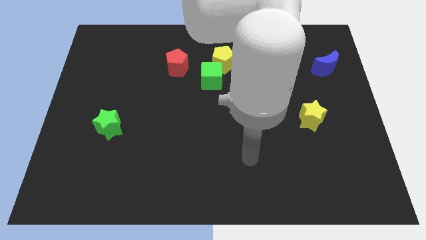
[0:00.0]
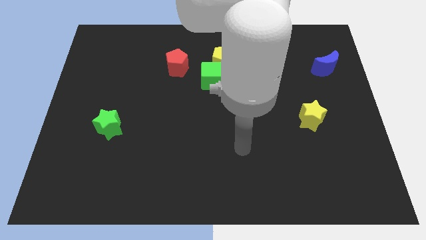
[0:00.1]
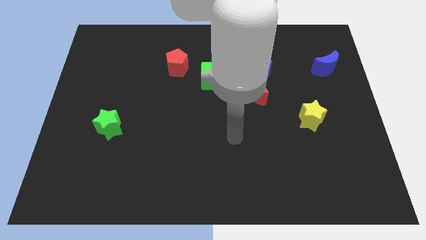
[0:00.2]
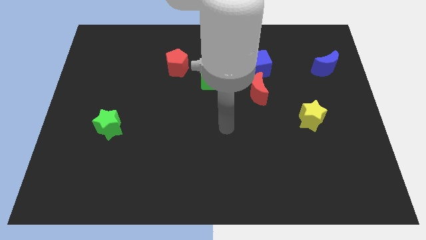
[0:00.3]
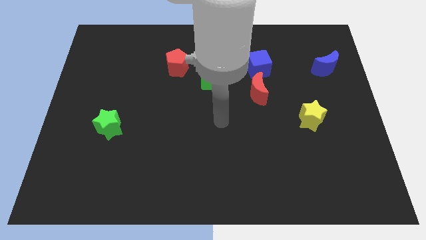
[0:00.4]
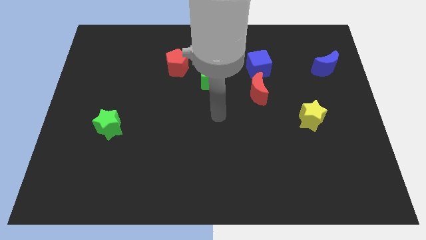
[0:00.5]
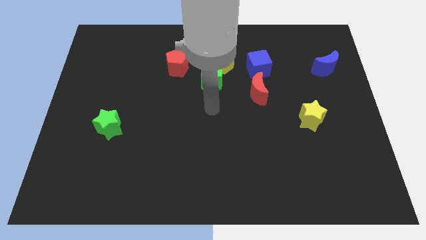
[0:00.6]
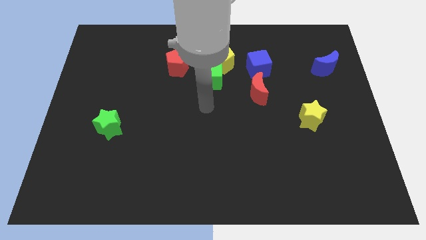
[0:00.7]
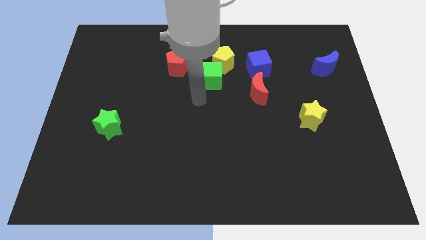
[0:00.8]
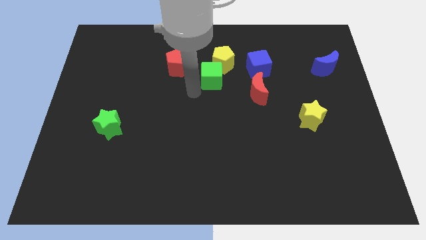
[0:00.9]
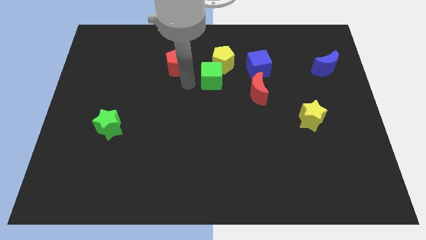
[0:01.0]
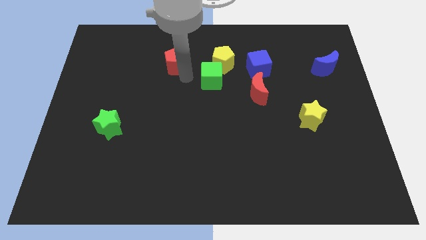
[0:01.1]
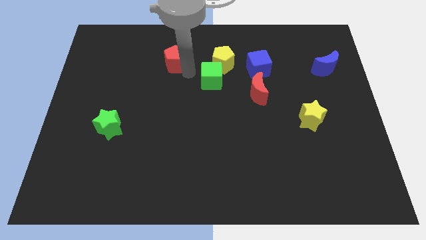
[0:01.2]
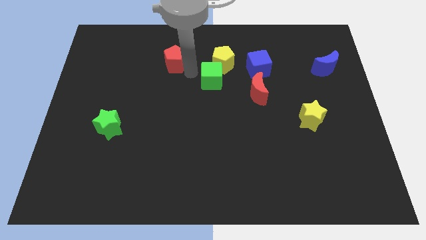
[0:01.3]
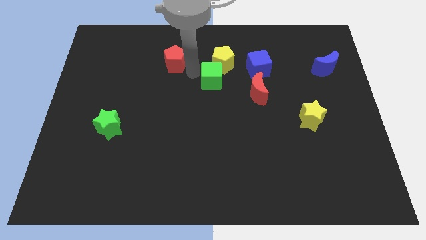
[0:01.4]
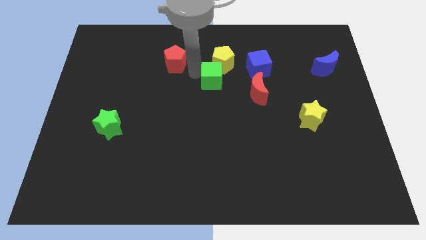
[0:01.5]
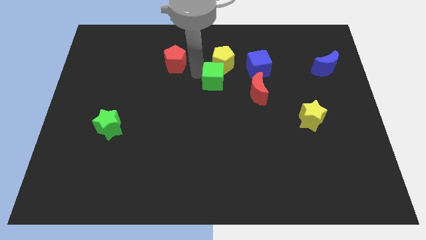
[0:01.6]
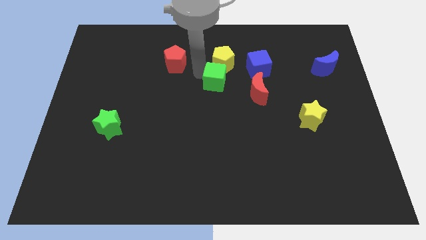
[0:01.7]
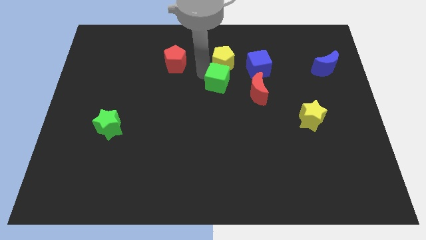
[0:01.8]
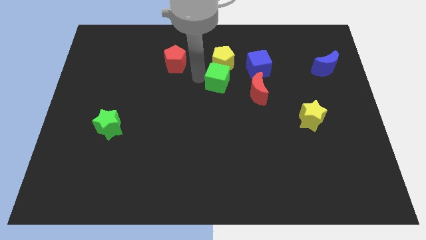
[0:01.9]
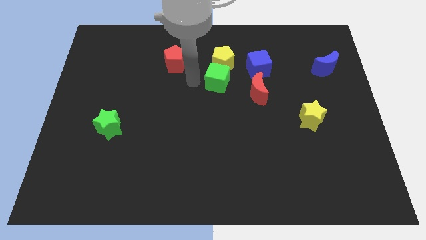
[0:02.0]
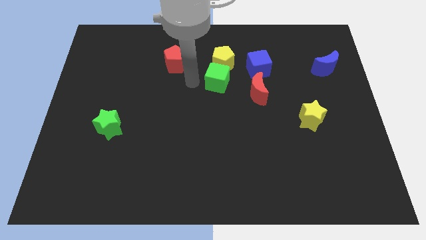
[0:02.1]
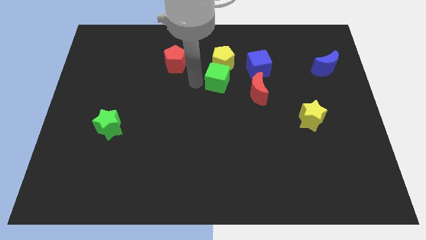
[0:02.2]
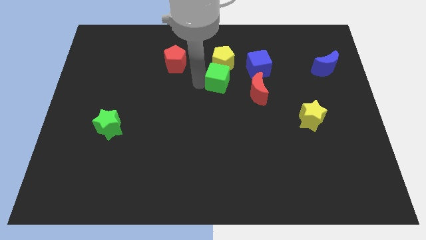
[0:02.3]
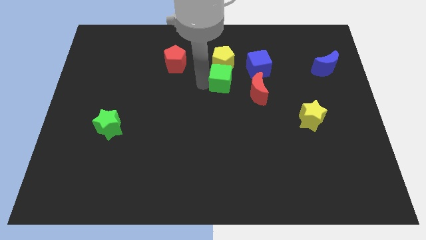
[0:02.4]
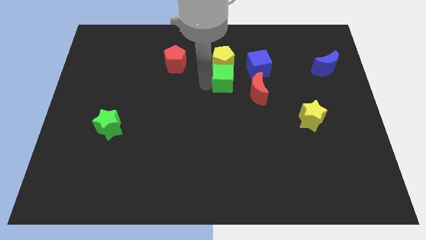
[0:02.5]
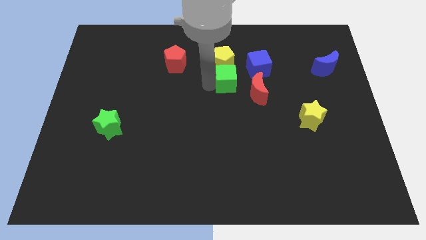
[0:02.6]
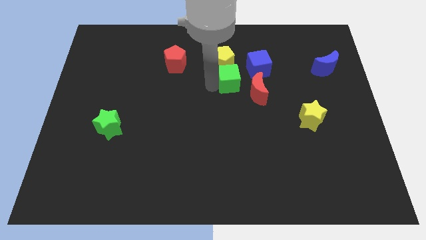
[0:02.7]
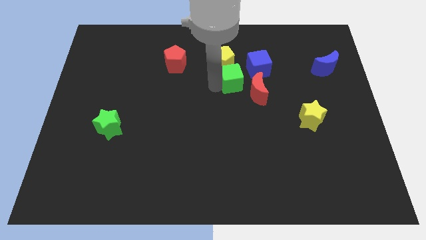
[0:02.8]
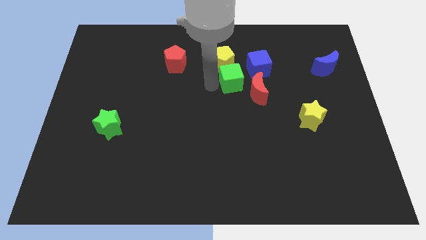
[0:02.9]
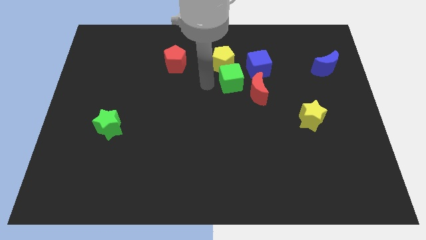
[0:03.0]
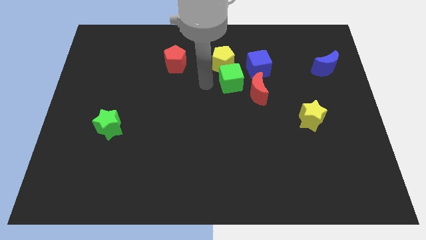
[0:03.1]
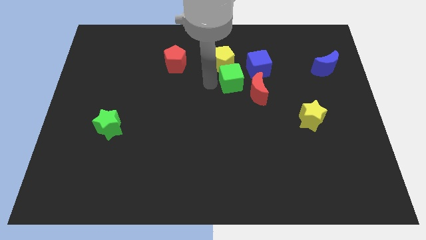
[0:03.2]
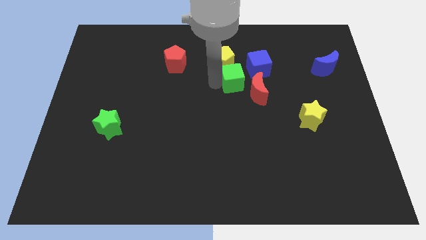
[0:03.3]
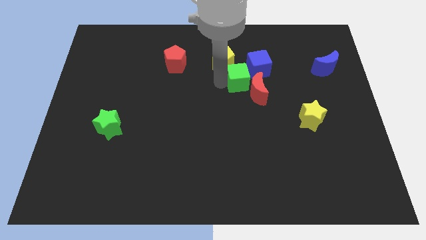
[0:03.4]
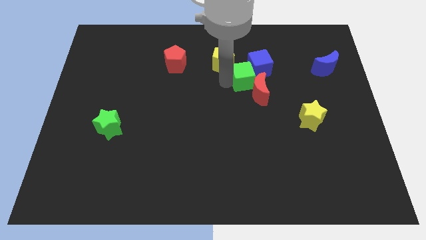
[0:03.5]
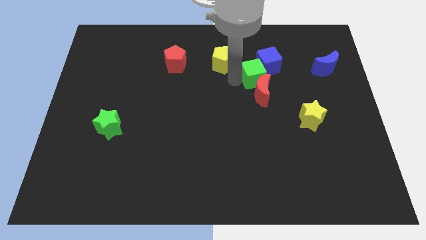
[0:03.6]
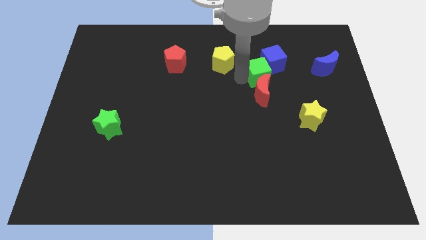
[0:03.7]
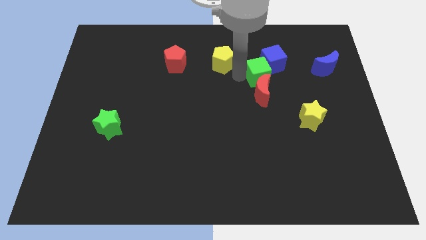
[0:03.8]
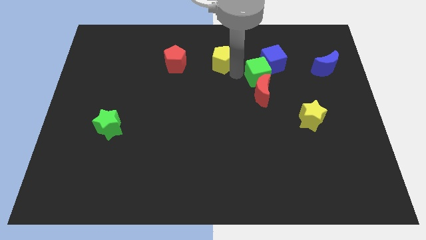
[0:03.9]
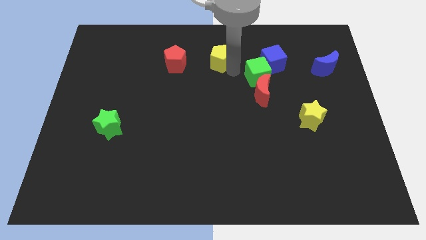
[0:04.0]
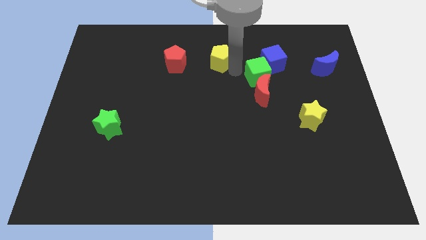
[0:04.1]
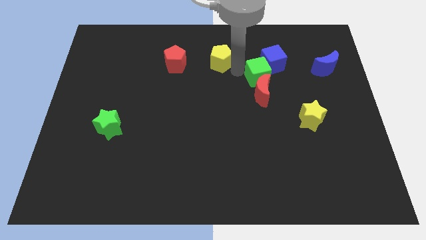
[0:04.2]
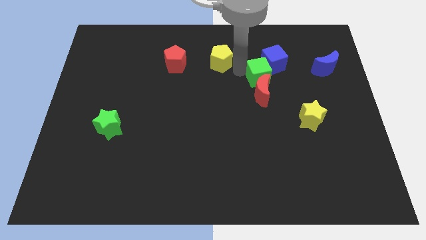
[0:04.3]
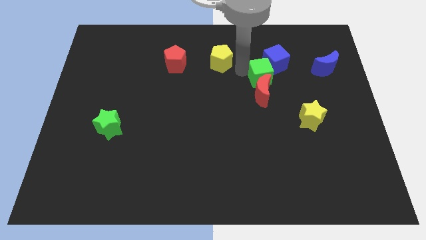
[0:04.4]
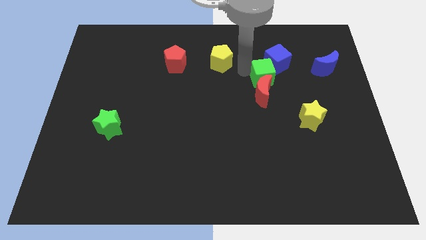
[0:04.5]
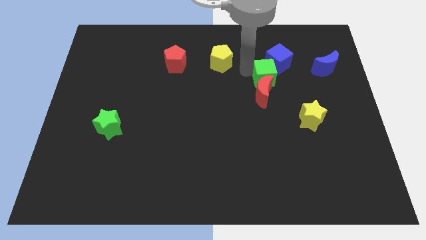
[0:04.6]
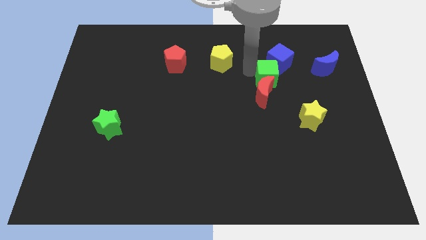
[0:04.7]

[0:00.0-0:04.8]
slide the green cube to the left side of the blue moon

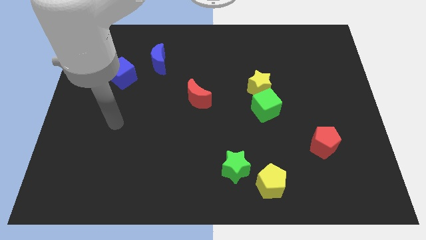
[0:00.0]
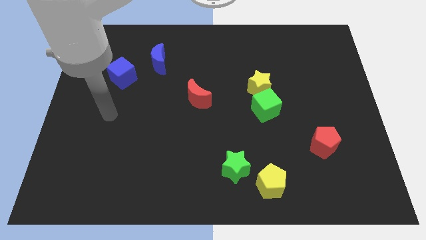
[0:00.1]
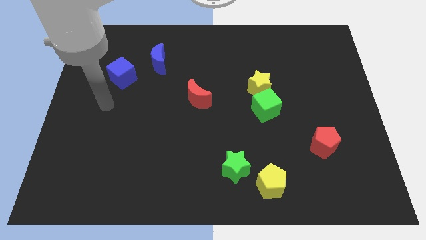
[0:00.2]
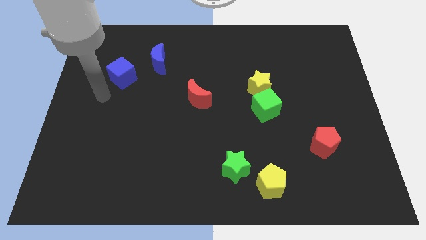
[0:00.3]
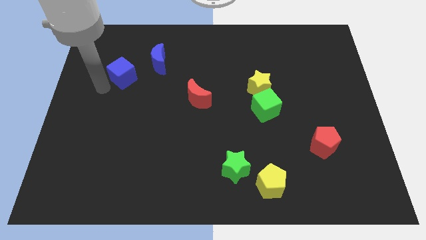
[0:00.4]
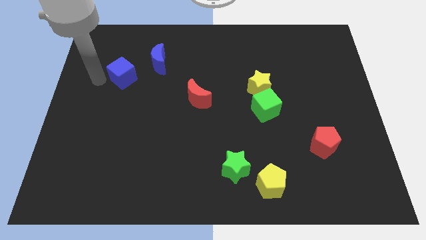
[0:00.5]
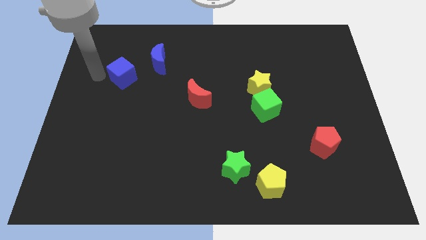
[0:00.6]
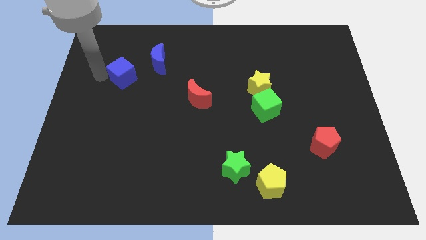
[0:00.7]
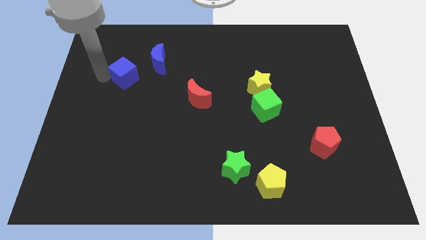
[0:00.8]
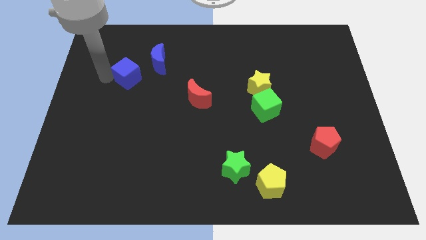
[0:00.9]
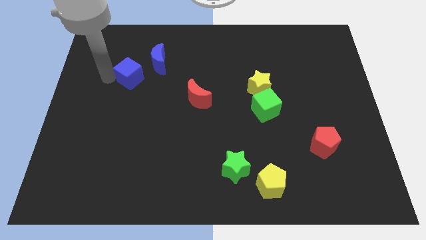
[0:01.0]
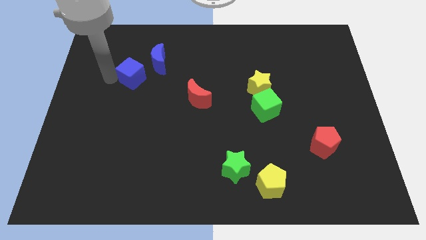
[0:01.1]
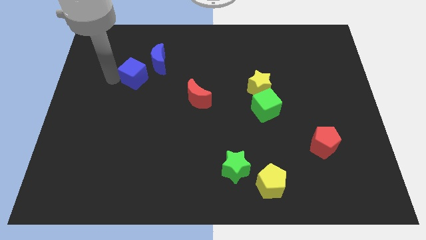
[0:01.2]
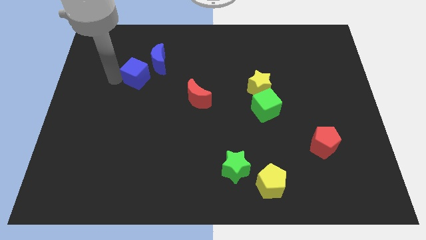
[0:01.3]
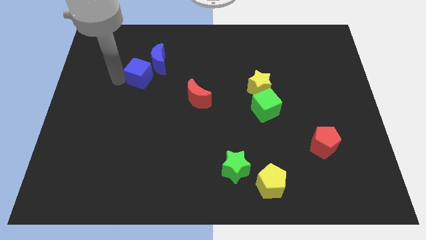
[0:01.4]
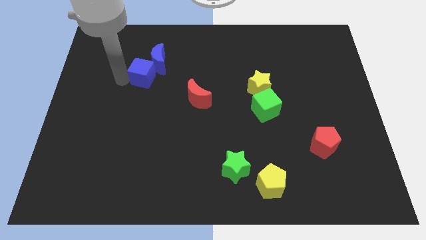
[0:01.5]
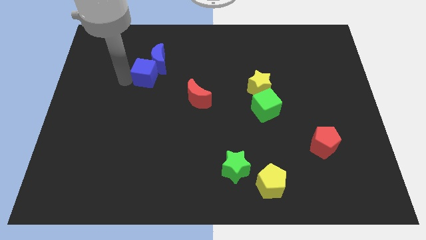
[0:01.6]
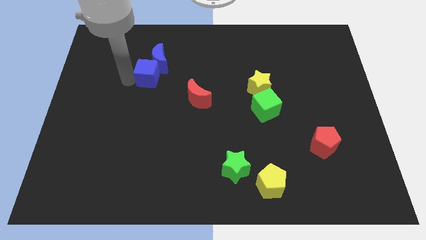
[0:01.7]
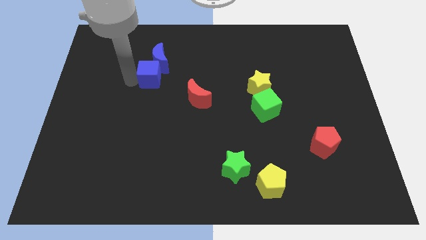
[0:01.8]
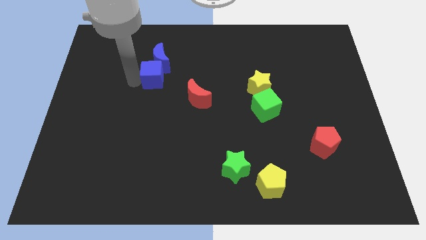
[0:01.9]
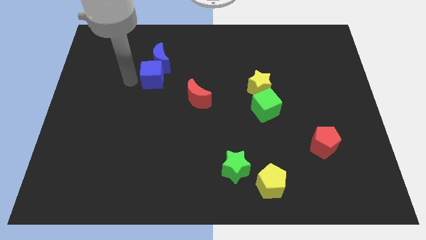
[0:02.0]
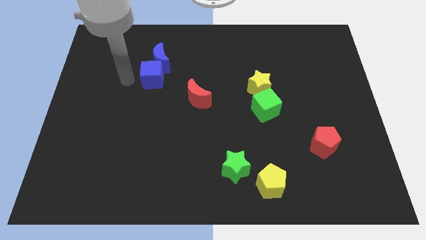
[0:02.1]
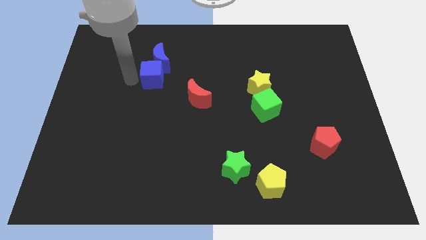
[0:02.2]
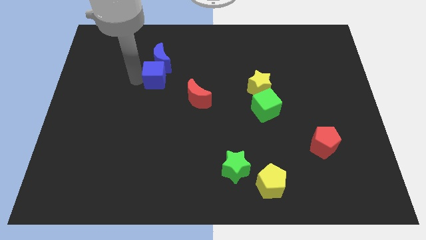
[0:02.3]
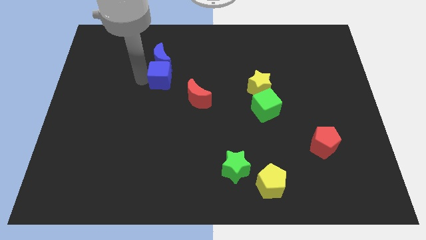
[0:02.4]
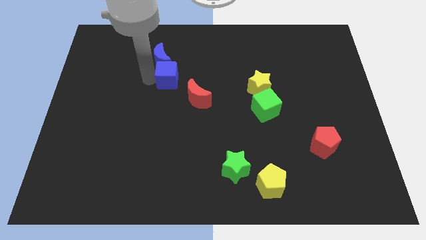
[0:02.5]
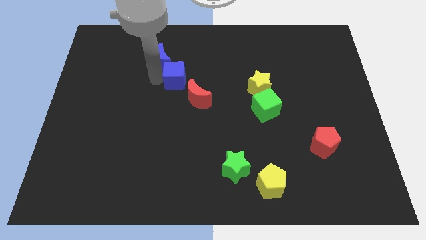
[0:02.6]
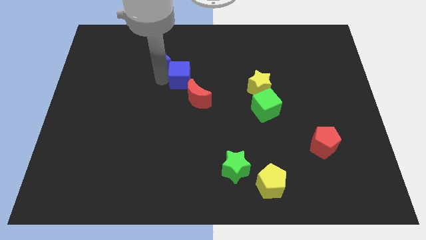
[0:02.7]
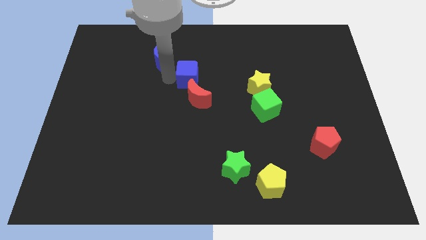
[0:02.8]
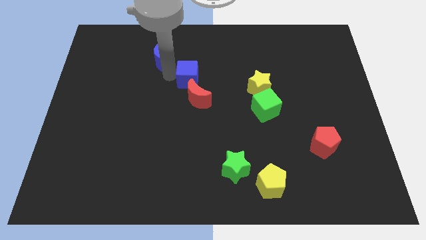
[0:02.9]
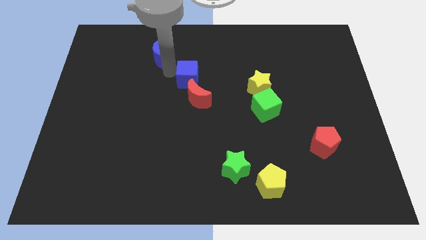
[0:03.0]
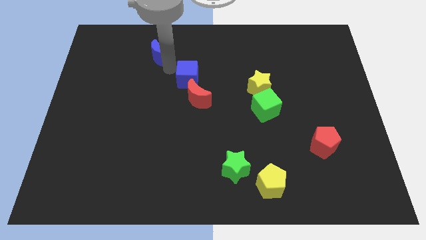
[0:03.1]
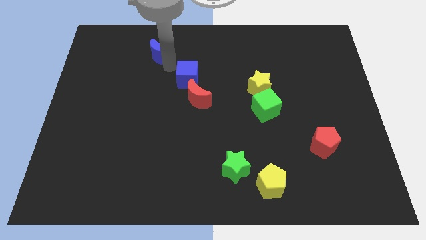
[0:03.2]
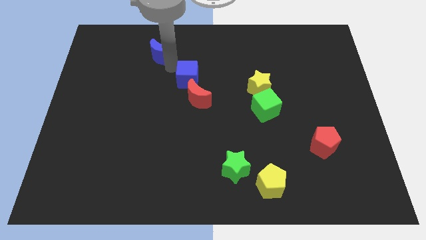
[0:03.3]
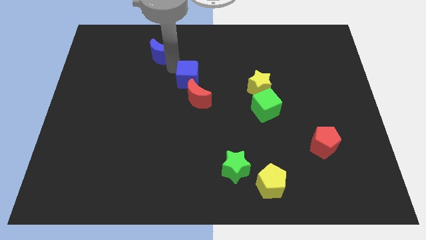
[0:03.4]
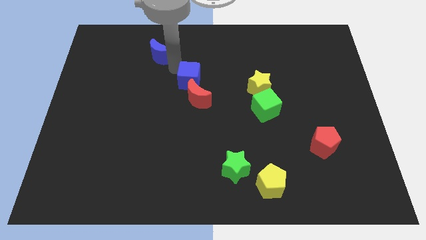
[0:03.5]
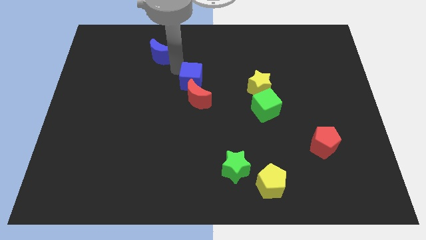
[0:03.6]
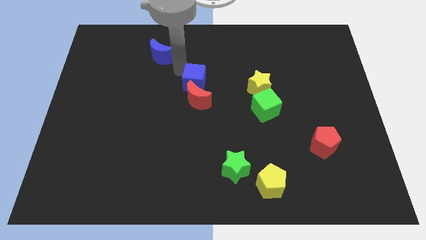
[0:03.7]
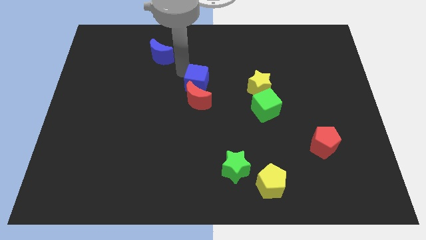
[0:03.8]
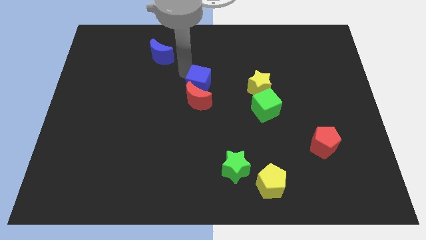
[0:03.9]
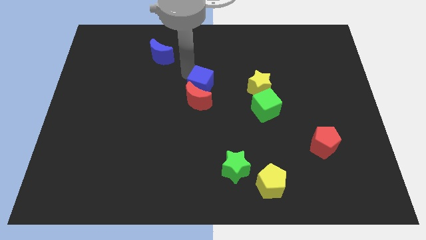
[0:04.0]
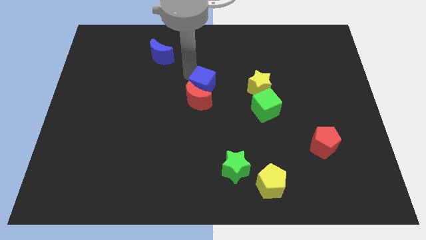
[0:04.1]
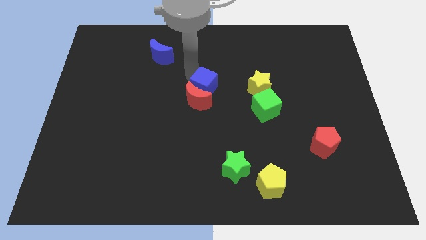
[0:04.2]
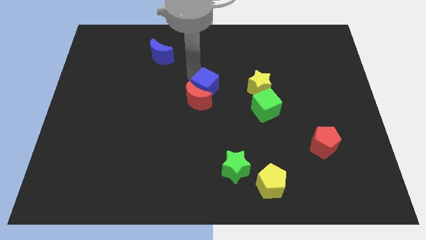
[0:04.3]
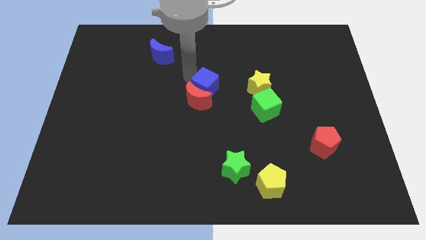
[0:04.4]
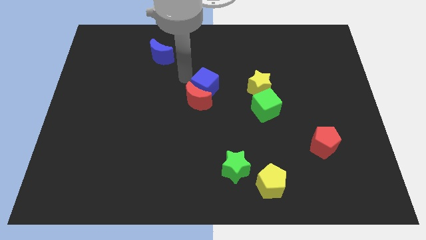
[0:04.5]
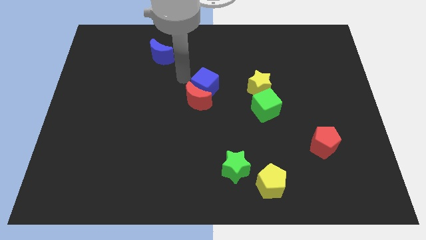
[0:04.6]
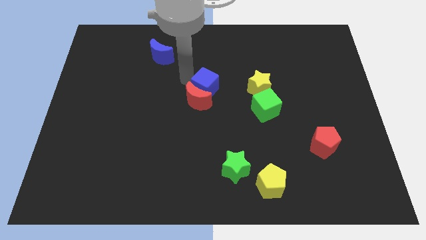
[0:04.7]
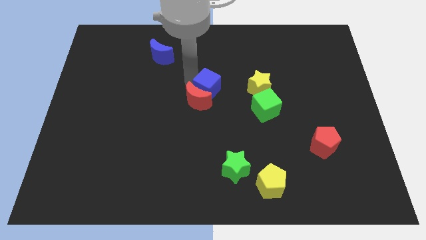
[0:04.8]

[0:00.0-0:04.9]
slide the blue cube just right of the red moon
